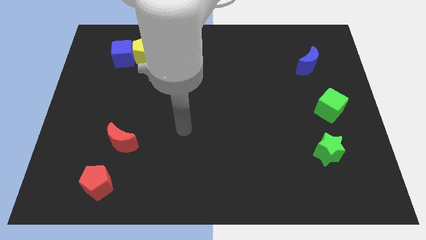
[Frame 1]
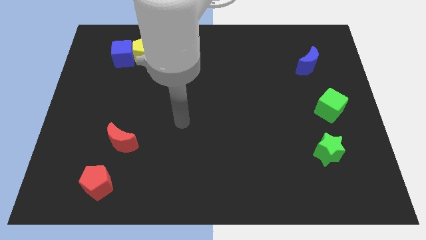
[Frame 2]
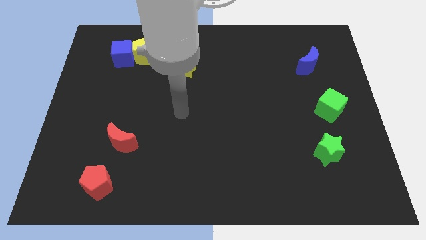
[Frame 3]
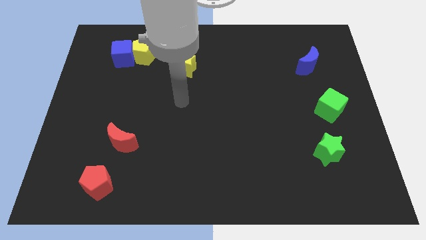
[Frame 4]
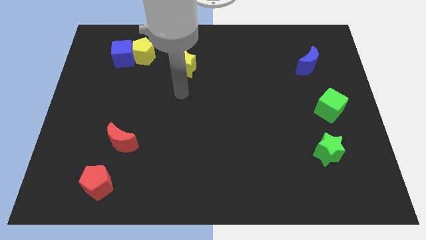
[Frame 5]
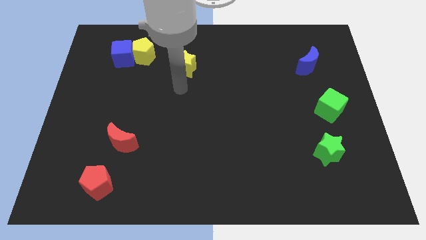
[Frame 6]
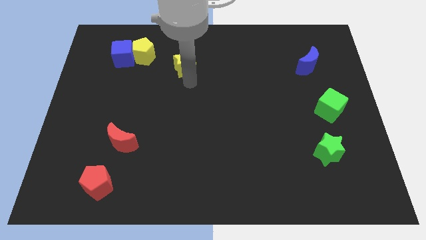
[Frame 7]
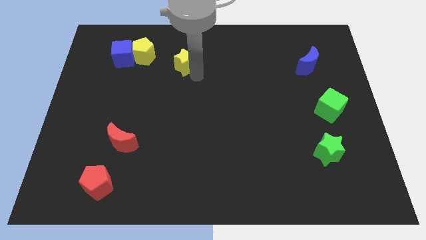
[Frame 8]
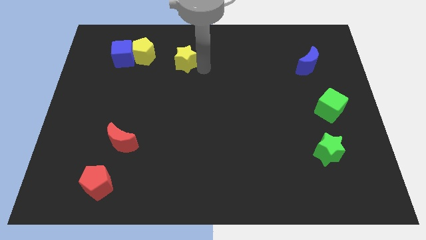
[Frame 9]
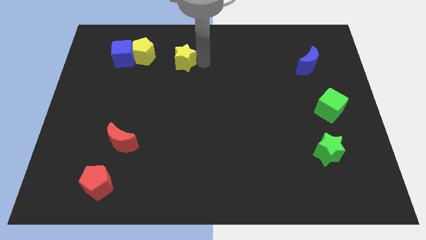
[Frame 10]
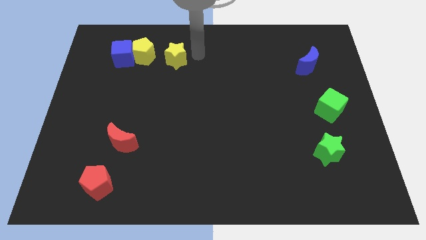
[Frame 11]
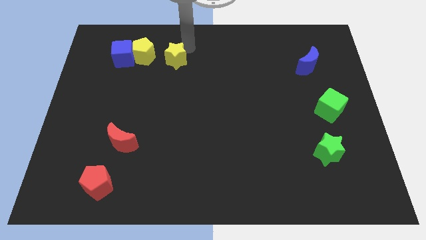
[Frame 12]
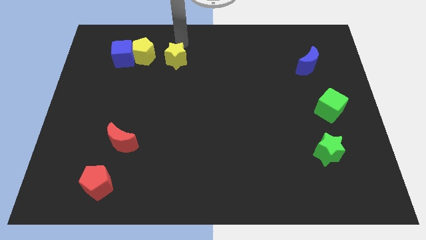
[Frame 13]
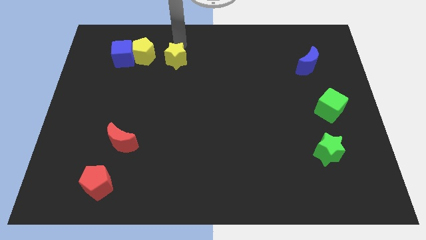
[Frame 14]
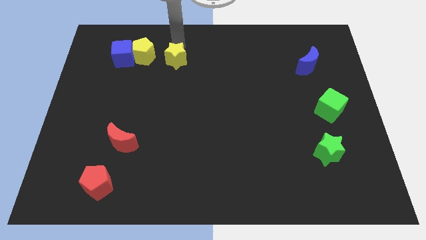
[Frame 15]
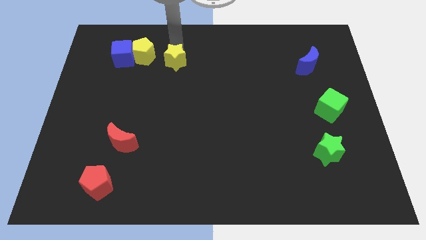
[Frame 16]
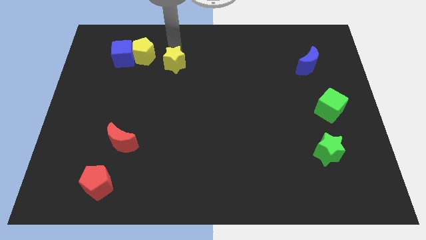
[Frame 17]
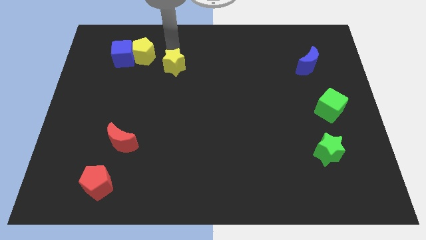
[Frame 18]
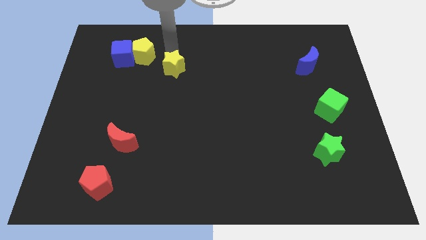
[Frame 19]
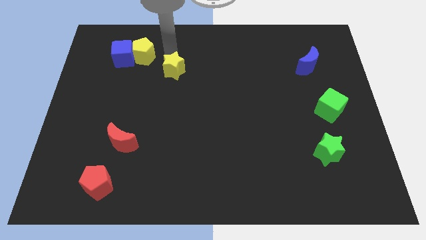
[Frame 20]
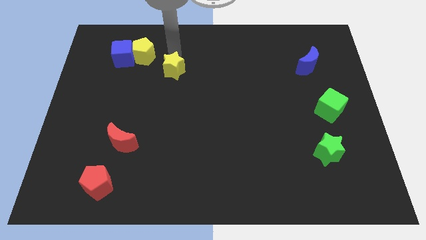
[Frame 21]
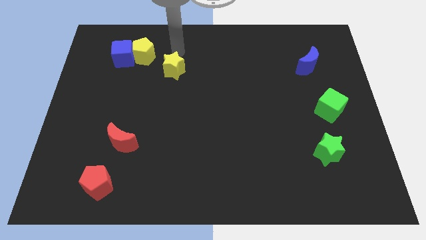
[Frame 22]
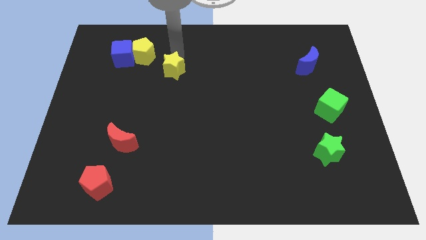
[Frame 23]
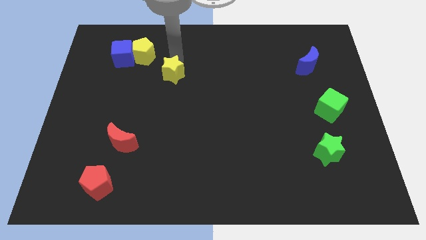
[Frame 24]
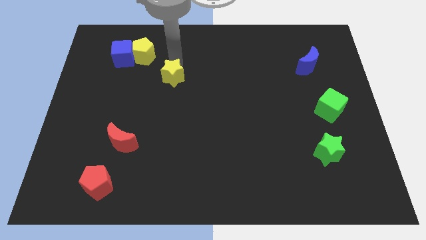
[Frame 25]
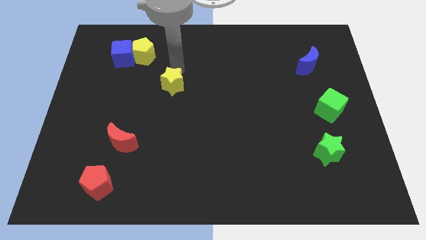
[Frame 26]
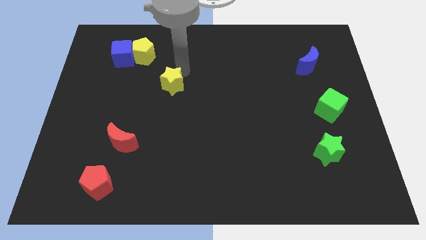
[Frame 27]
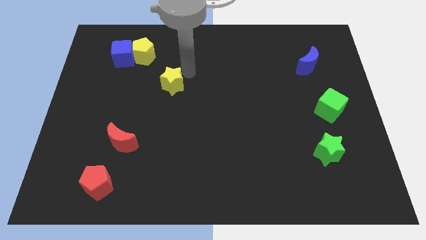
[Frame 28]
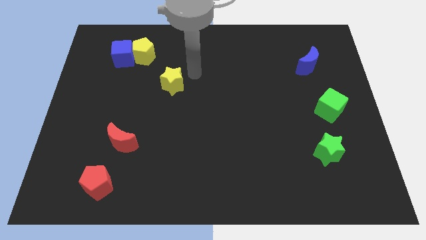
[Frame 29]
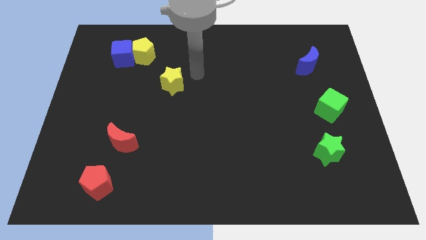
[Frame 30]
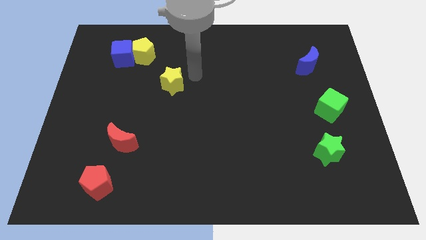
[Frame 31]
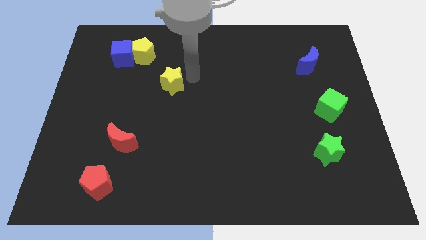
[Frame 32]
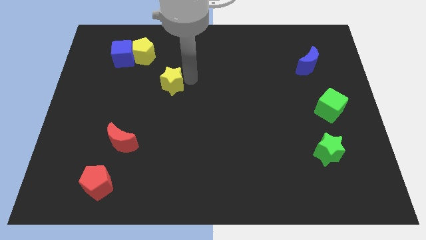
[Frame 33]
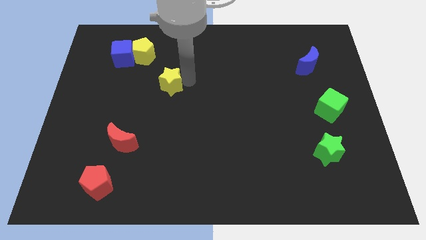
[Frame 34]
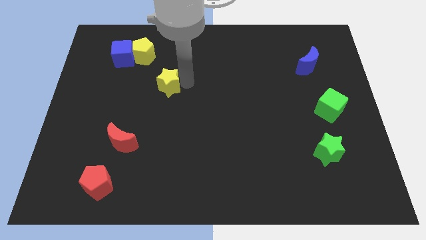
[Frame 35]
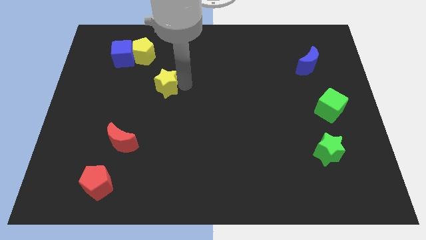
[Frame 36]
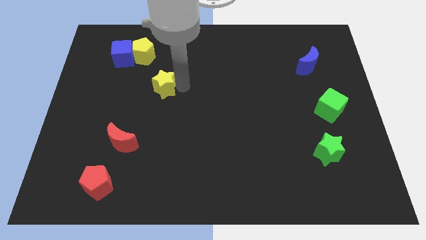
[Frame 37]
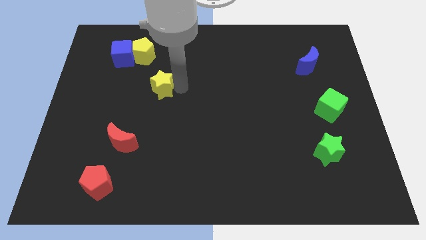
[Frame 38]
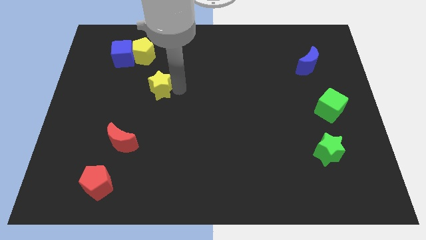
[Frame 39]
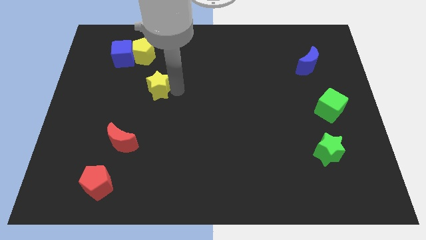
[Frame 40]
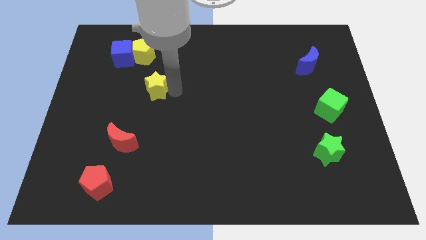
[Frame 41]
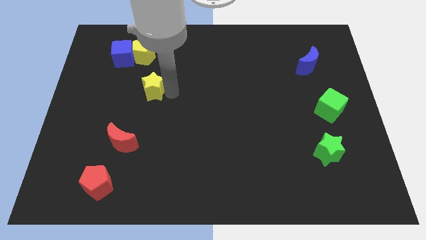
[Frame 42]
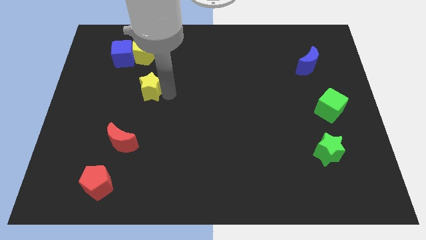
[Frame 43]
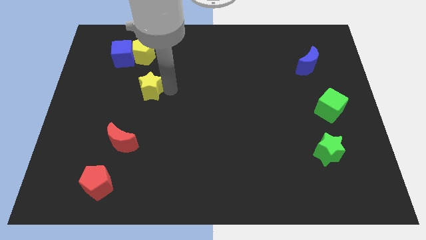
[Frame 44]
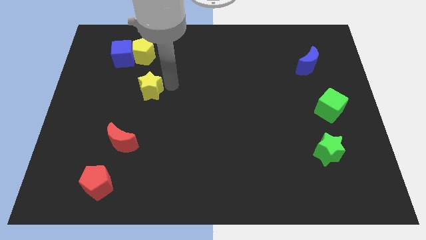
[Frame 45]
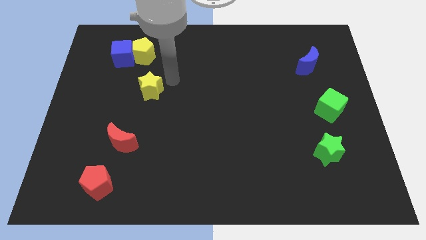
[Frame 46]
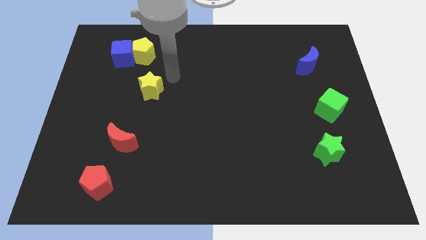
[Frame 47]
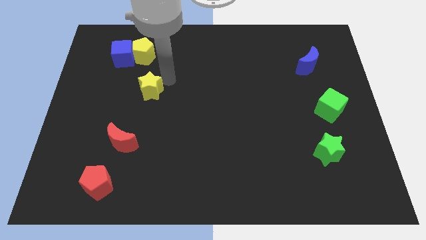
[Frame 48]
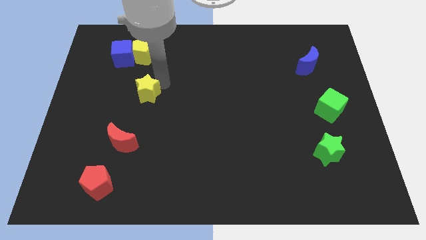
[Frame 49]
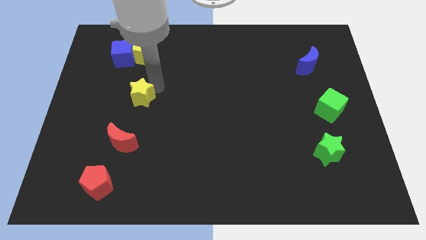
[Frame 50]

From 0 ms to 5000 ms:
slide the yellow star above the red moon

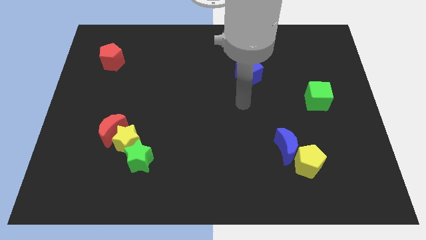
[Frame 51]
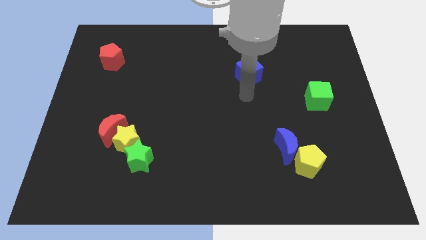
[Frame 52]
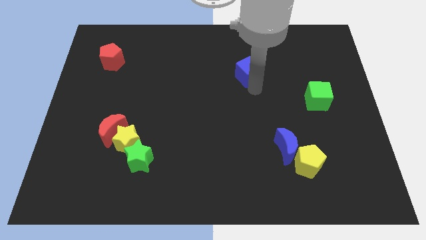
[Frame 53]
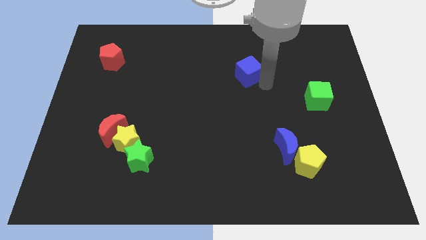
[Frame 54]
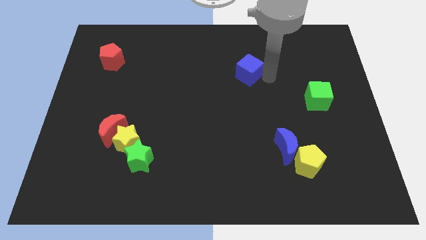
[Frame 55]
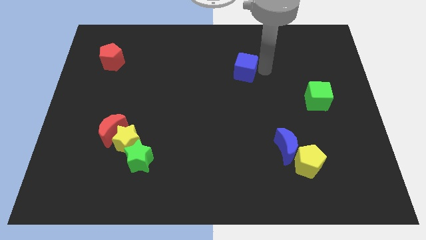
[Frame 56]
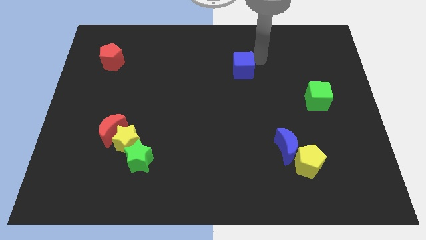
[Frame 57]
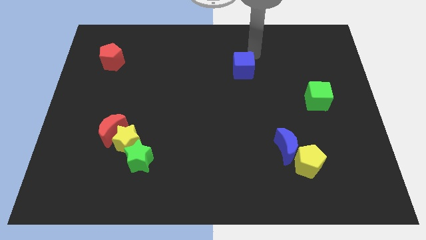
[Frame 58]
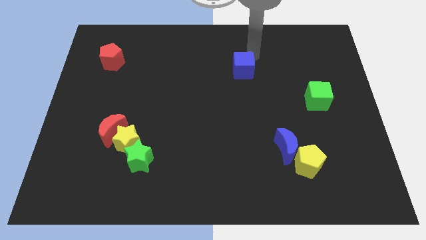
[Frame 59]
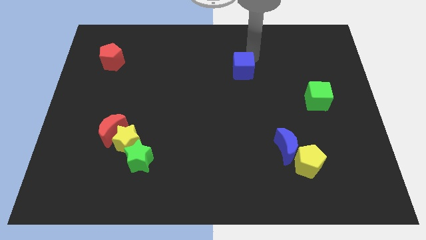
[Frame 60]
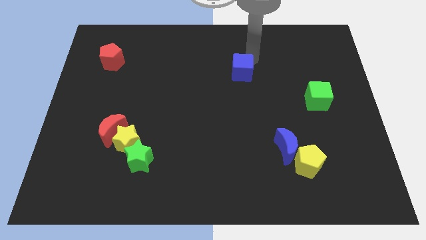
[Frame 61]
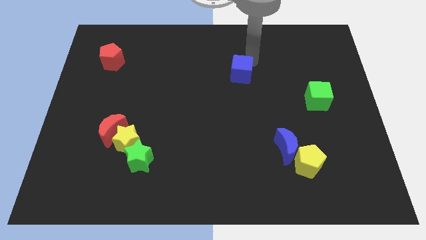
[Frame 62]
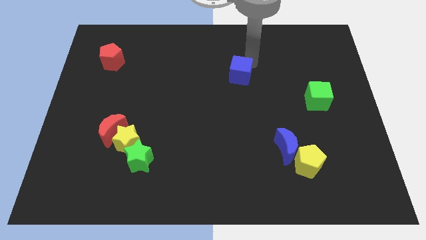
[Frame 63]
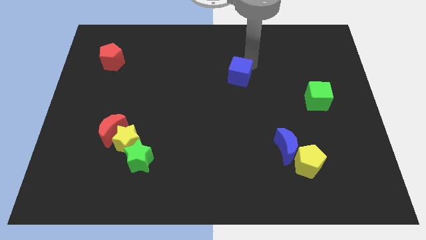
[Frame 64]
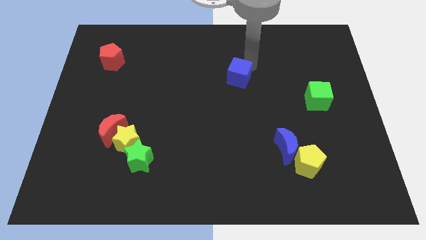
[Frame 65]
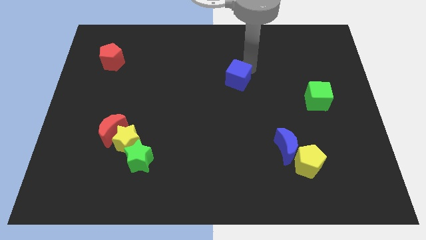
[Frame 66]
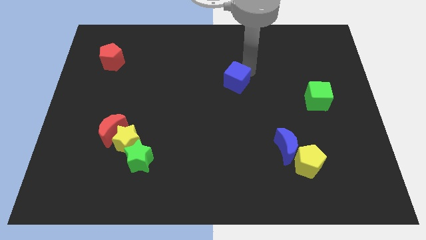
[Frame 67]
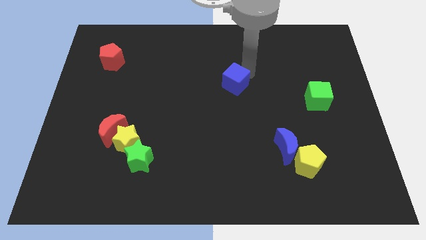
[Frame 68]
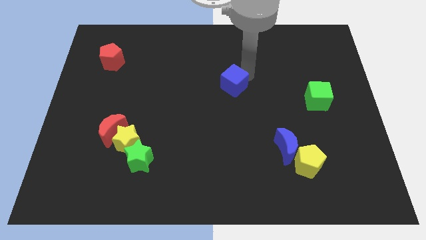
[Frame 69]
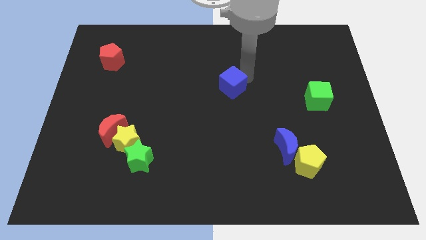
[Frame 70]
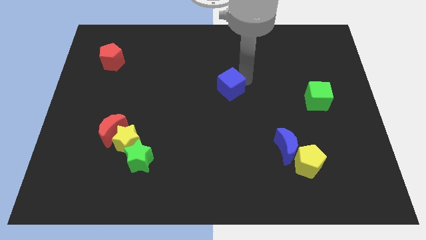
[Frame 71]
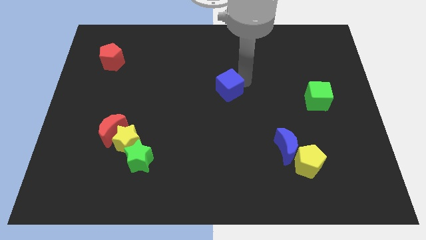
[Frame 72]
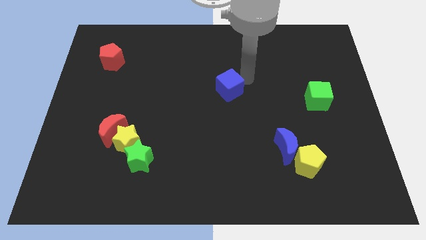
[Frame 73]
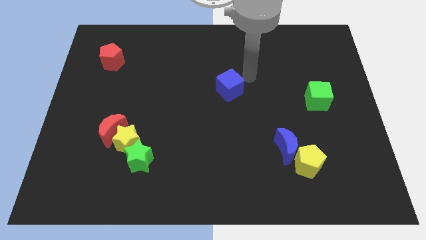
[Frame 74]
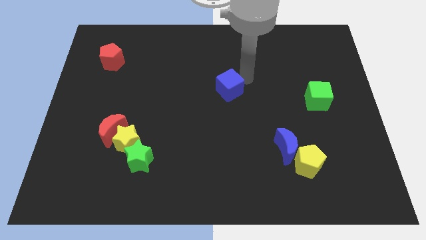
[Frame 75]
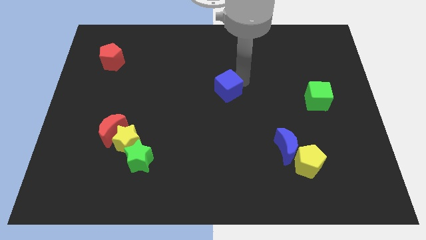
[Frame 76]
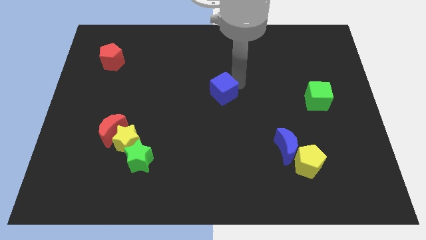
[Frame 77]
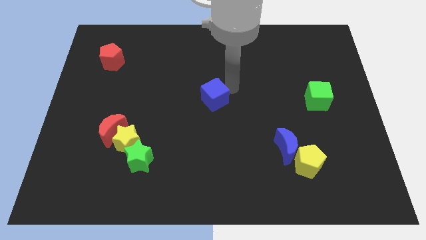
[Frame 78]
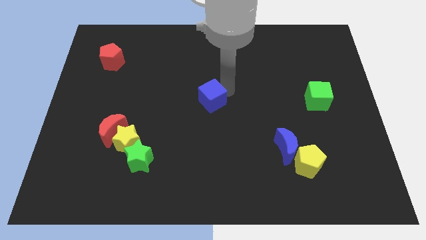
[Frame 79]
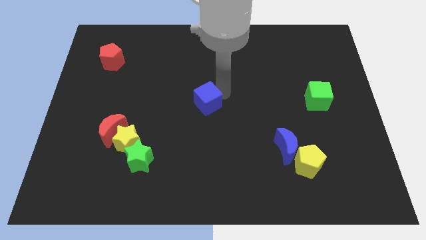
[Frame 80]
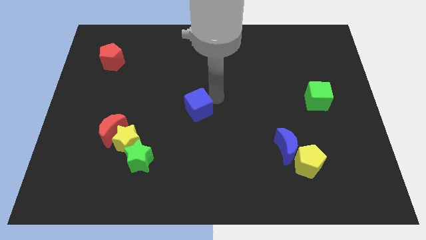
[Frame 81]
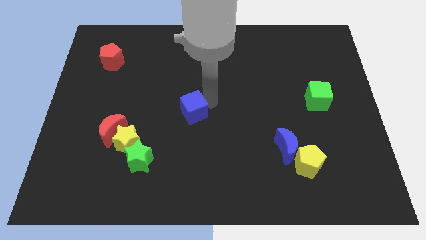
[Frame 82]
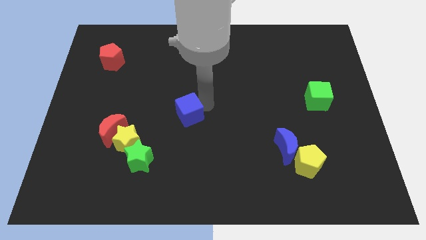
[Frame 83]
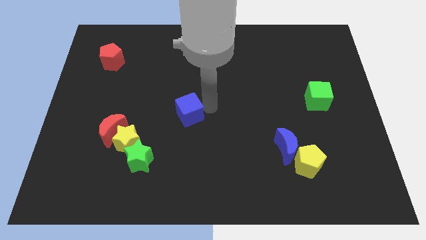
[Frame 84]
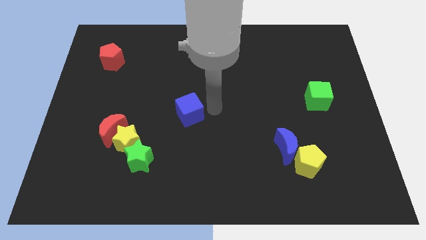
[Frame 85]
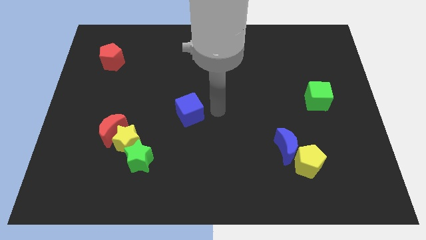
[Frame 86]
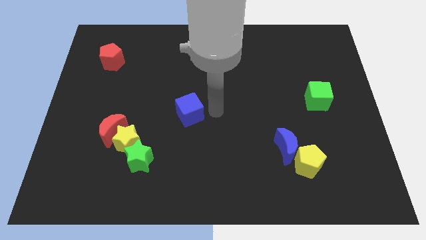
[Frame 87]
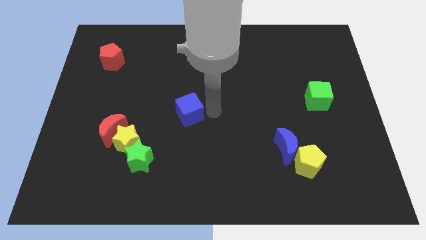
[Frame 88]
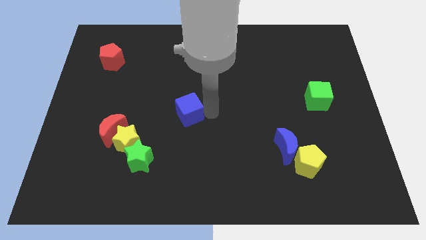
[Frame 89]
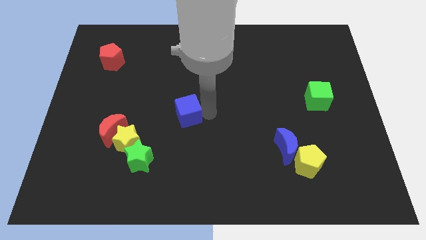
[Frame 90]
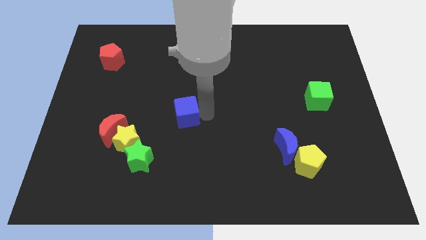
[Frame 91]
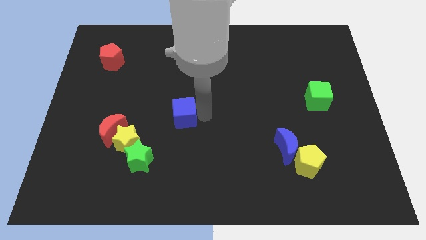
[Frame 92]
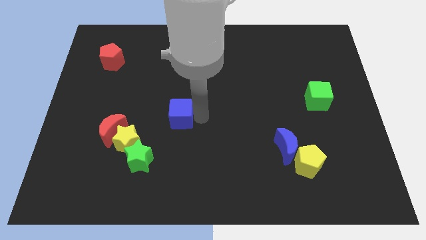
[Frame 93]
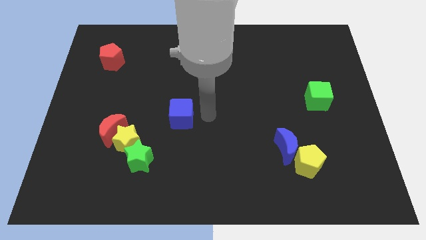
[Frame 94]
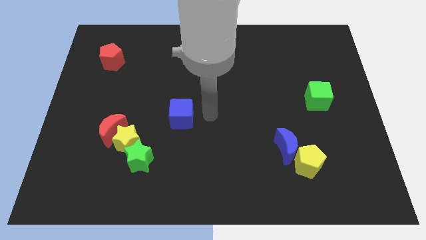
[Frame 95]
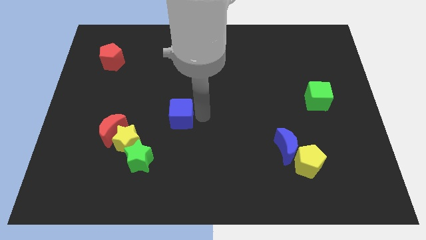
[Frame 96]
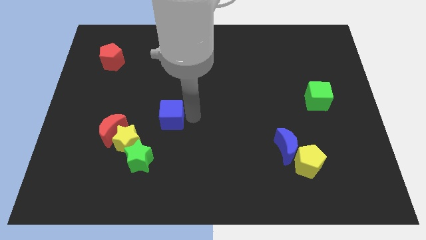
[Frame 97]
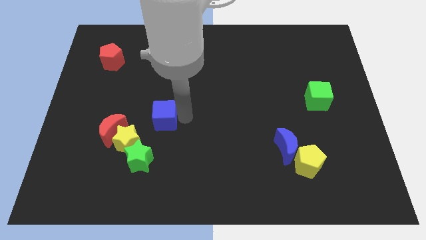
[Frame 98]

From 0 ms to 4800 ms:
move the blue cube above the green star
